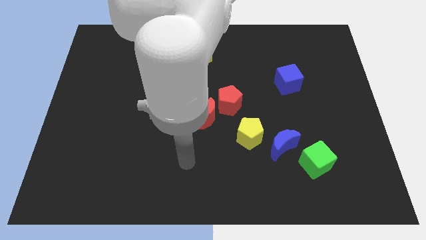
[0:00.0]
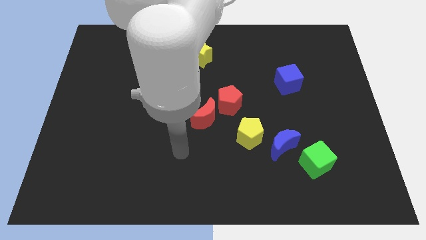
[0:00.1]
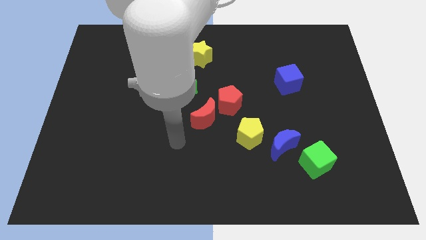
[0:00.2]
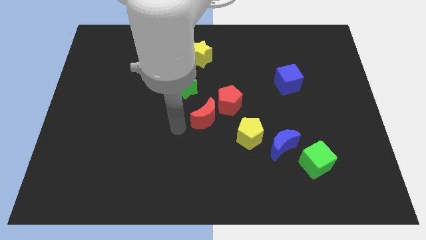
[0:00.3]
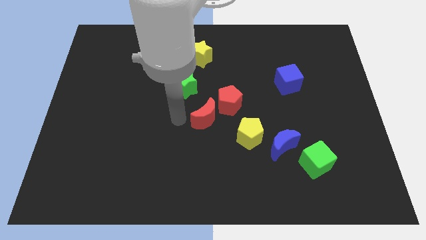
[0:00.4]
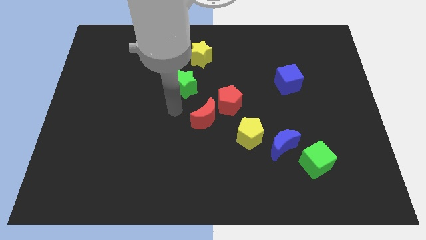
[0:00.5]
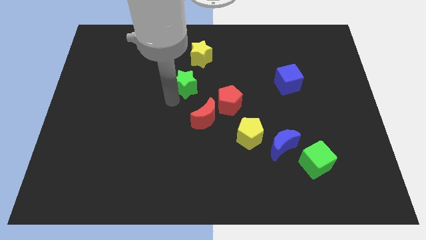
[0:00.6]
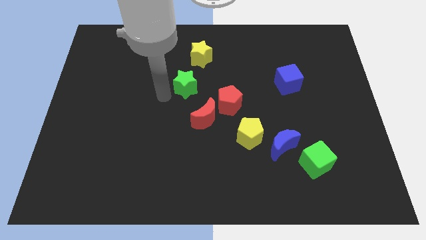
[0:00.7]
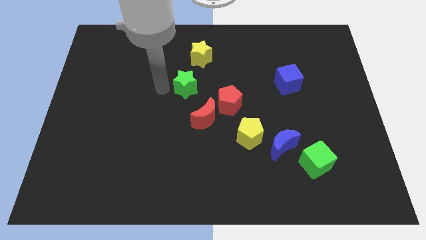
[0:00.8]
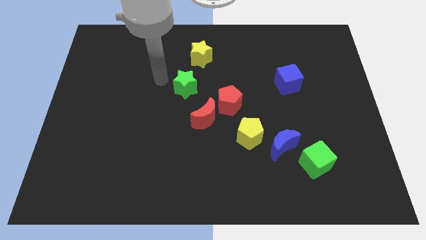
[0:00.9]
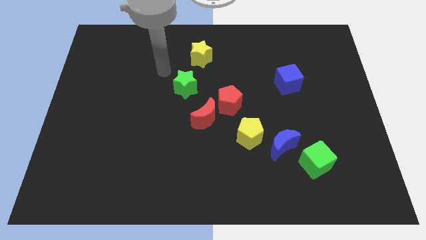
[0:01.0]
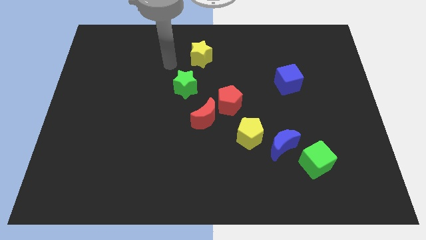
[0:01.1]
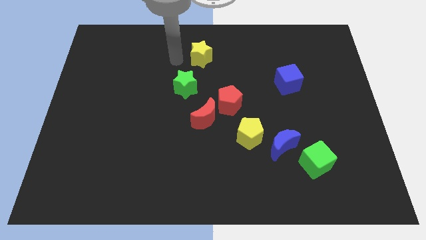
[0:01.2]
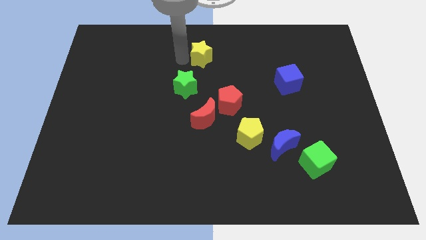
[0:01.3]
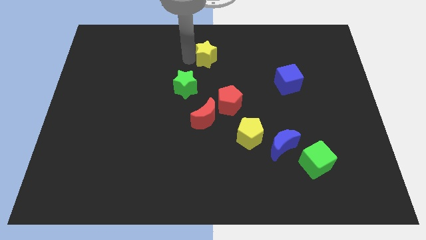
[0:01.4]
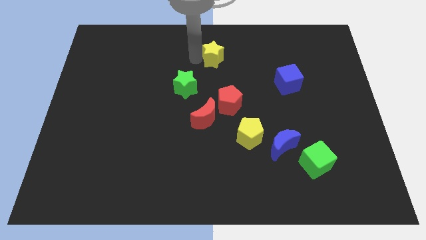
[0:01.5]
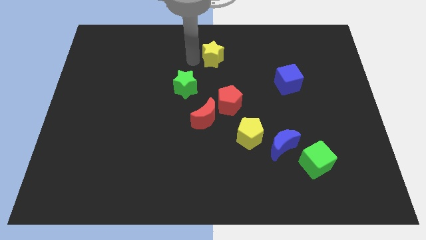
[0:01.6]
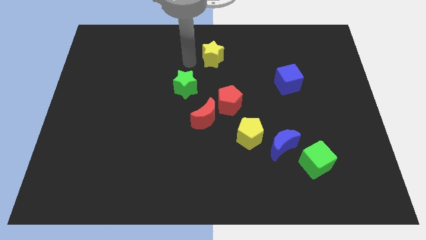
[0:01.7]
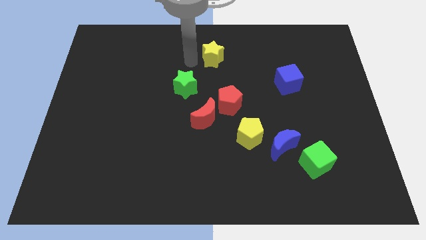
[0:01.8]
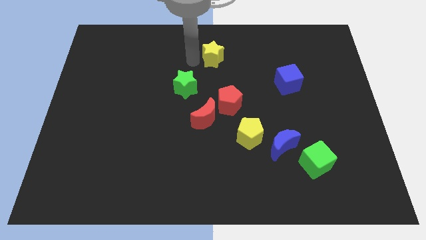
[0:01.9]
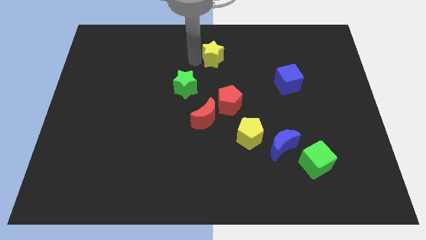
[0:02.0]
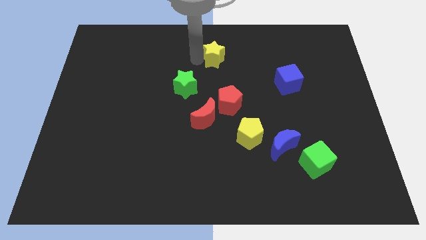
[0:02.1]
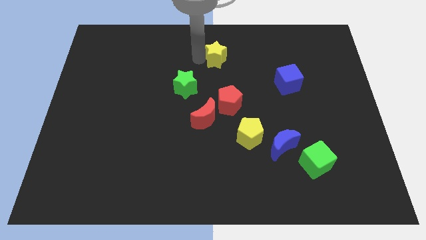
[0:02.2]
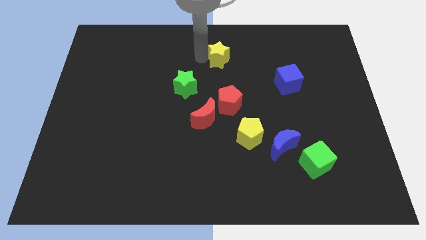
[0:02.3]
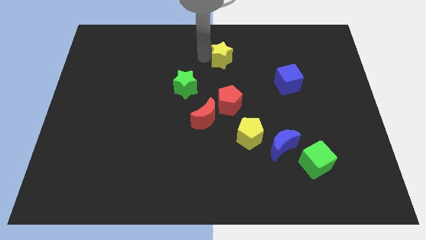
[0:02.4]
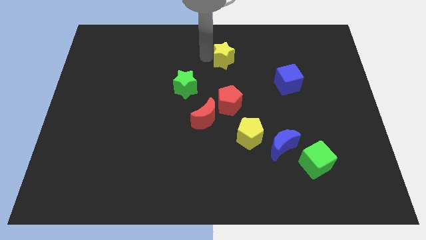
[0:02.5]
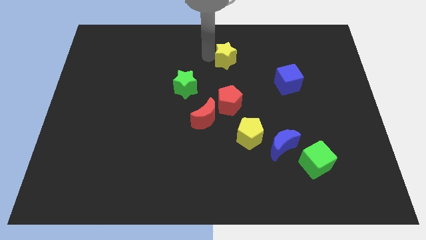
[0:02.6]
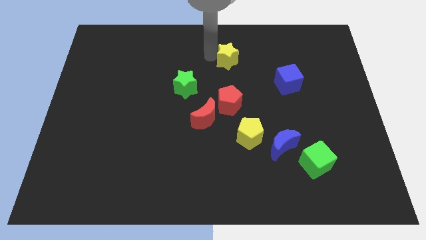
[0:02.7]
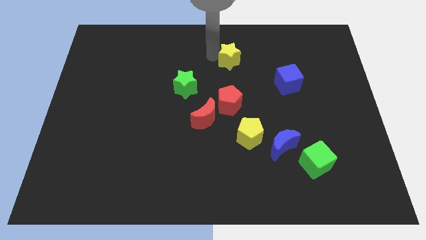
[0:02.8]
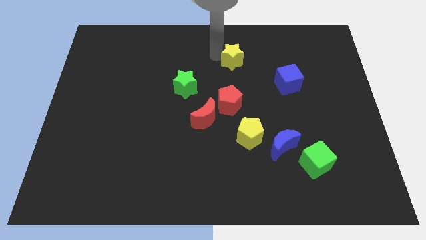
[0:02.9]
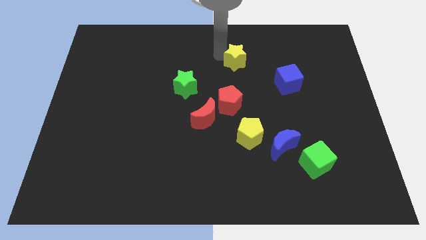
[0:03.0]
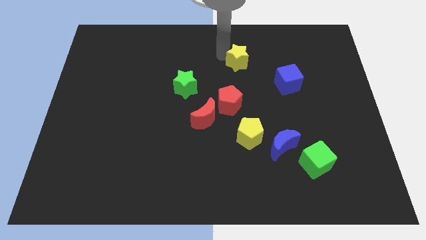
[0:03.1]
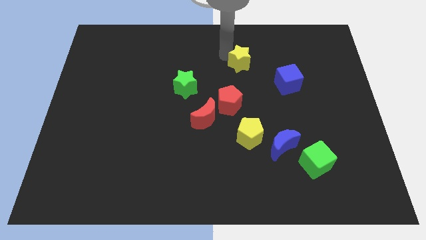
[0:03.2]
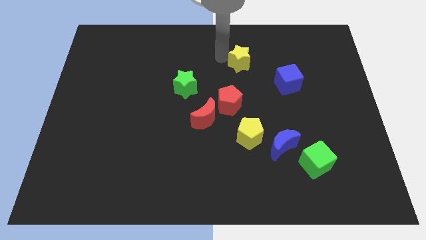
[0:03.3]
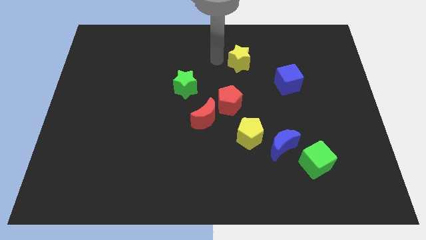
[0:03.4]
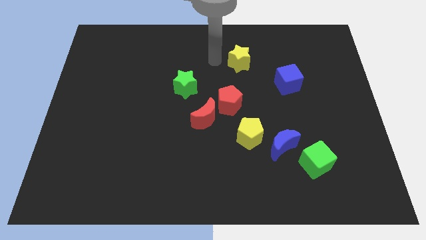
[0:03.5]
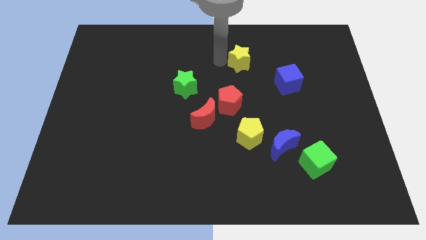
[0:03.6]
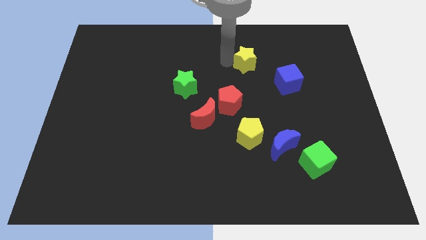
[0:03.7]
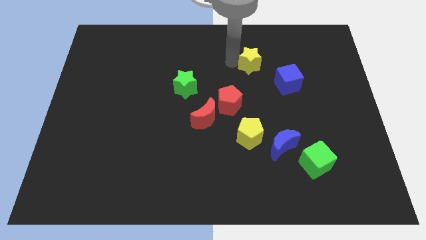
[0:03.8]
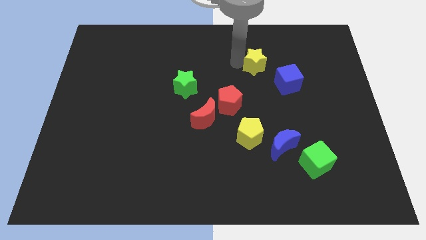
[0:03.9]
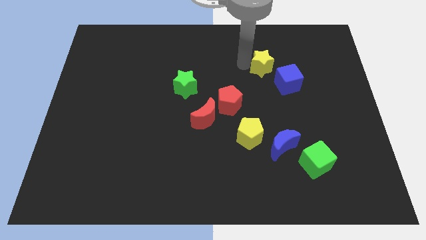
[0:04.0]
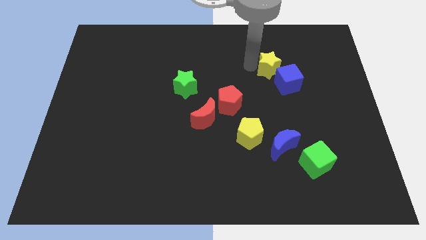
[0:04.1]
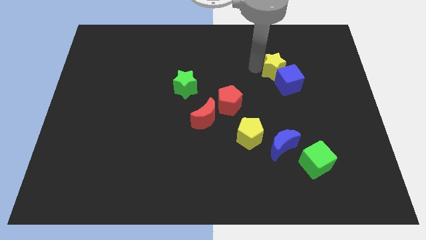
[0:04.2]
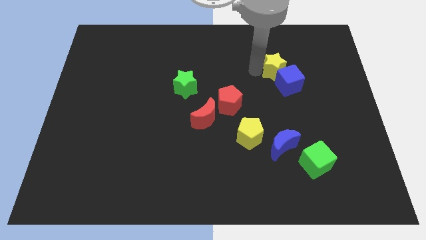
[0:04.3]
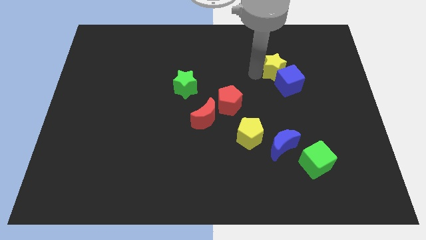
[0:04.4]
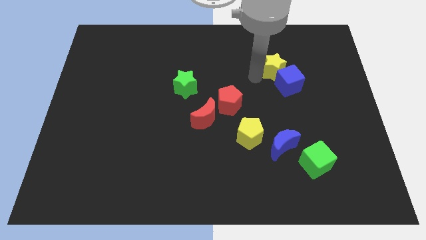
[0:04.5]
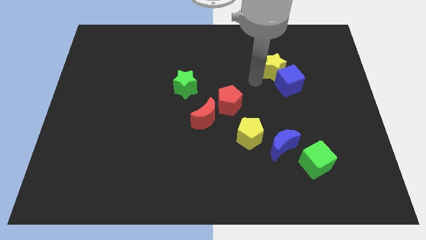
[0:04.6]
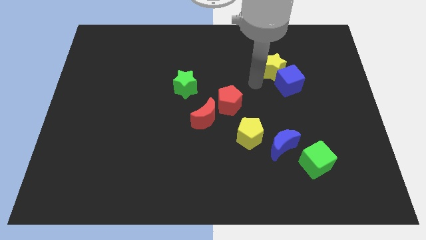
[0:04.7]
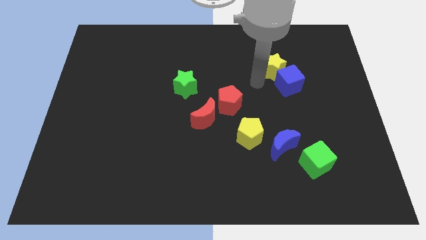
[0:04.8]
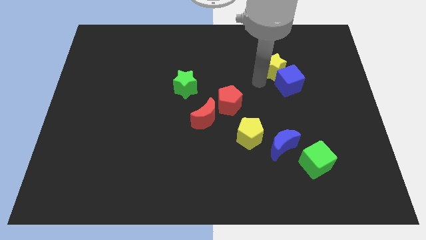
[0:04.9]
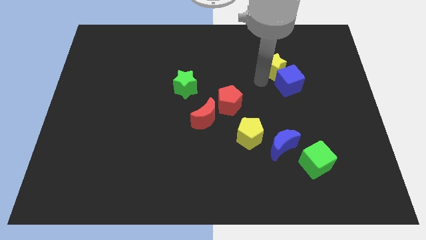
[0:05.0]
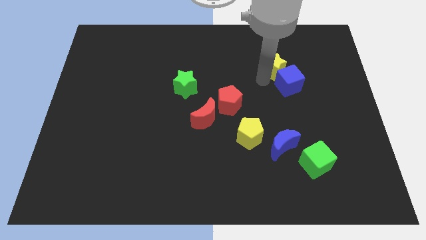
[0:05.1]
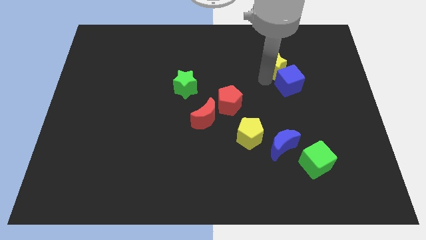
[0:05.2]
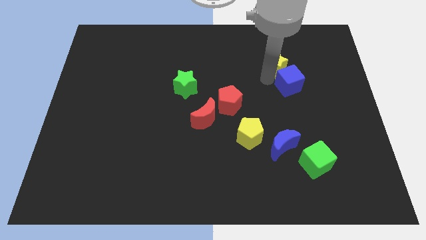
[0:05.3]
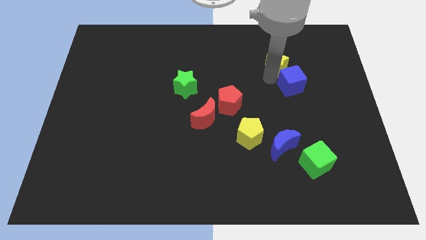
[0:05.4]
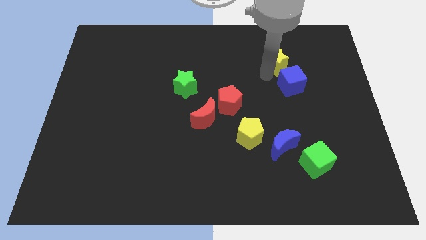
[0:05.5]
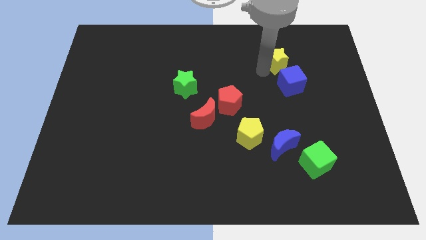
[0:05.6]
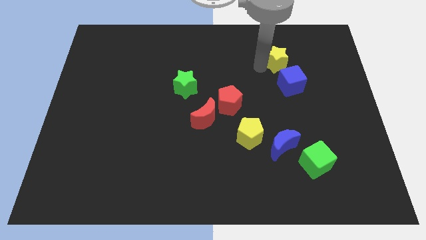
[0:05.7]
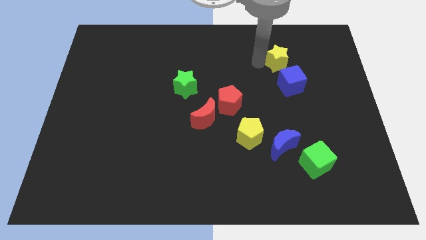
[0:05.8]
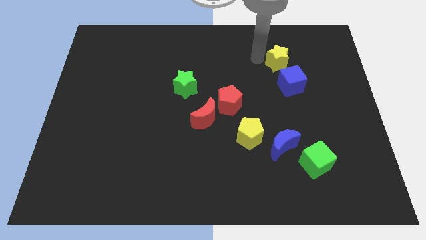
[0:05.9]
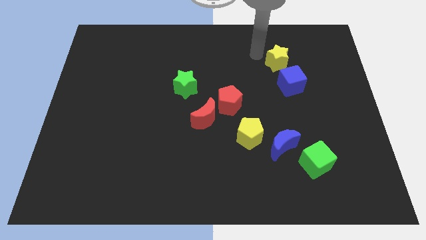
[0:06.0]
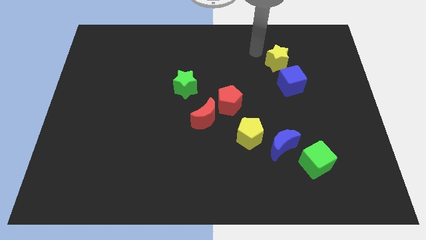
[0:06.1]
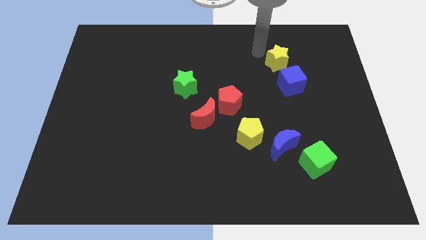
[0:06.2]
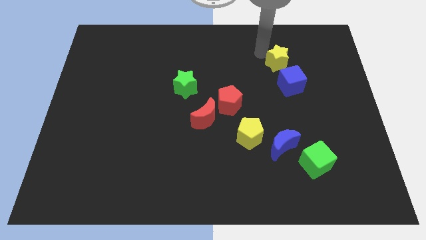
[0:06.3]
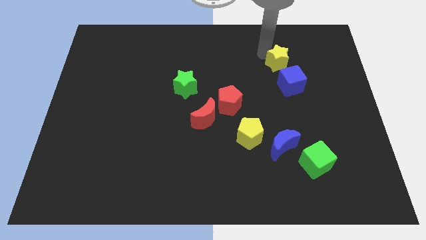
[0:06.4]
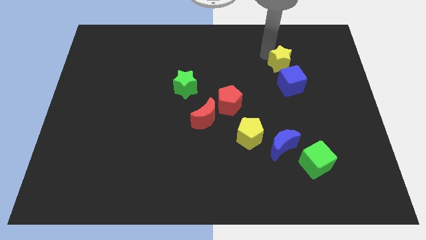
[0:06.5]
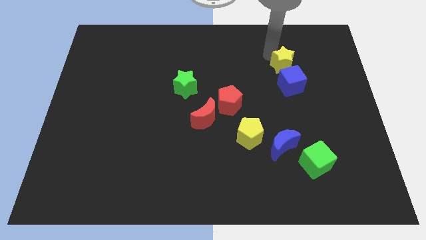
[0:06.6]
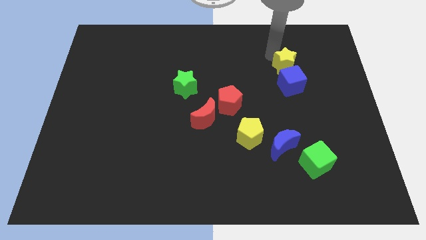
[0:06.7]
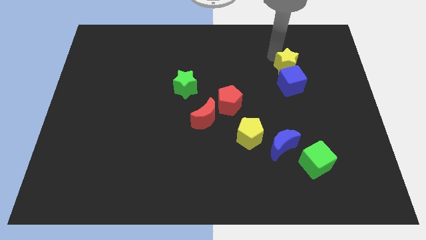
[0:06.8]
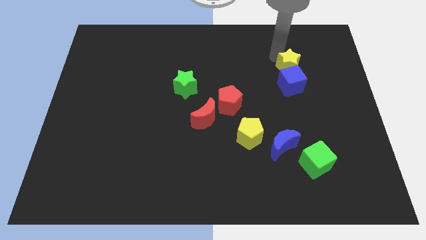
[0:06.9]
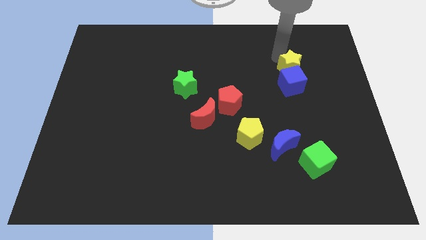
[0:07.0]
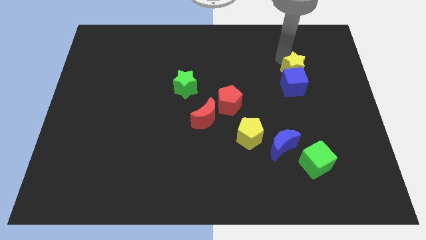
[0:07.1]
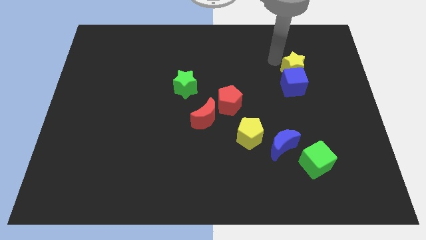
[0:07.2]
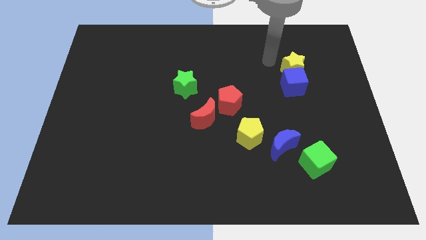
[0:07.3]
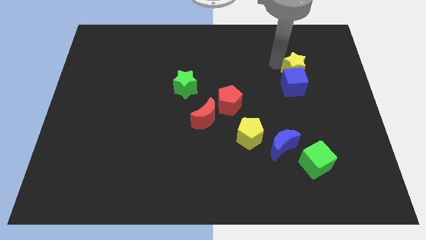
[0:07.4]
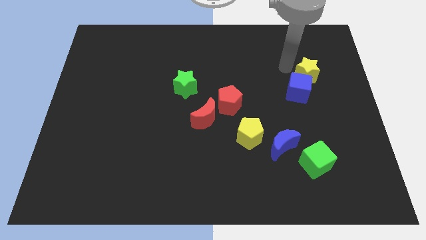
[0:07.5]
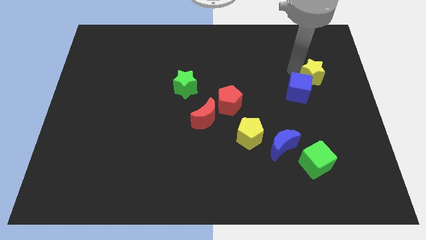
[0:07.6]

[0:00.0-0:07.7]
push the yellow star to the right of the blue cube
